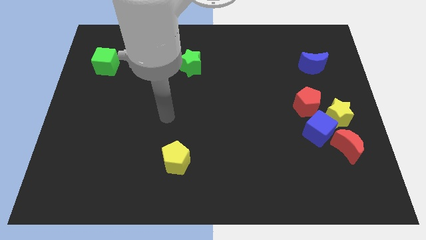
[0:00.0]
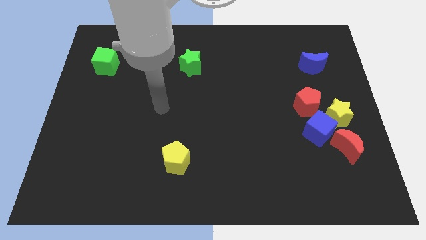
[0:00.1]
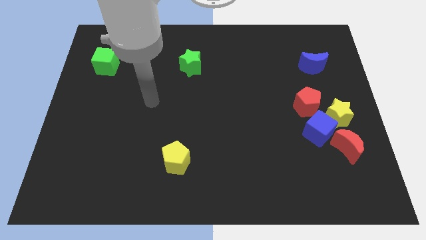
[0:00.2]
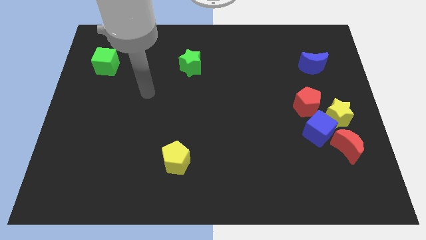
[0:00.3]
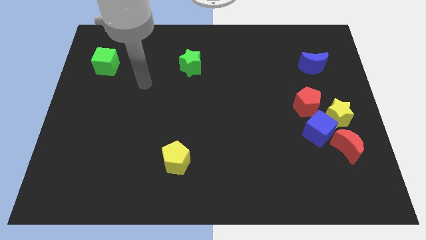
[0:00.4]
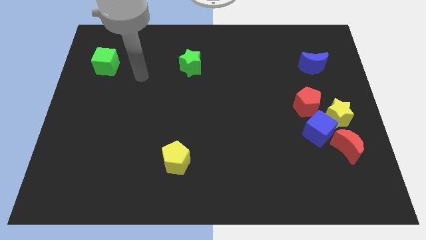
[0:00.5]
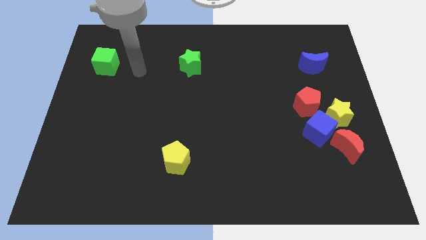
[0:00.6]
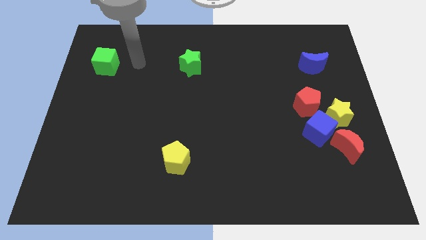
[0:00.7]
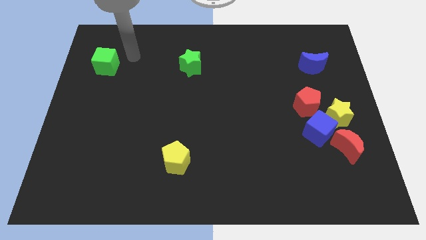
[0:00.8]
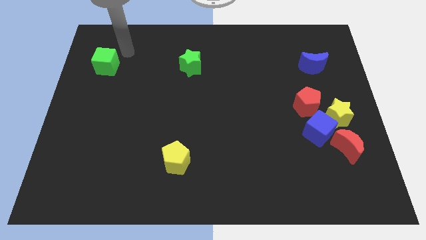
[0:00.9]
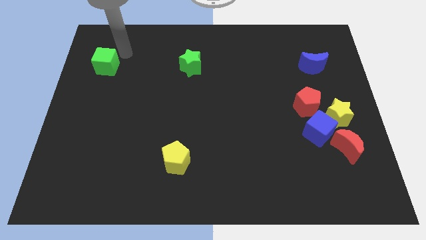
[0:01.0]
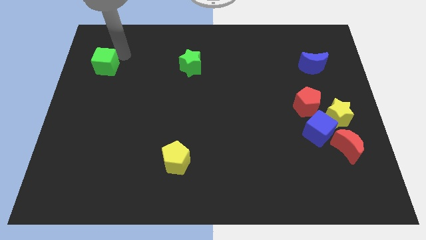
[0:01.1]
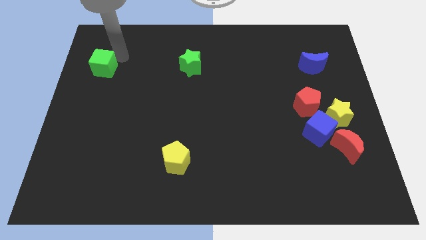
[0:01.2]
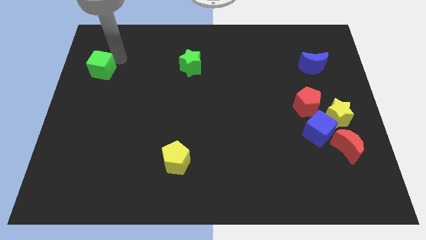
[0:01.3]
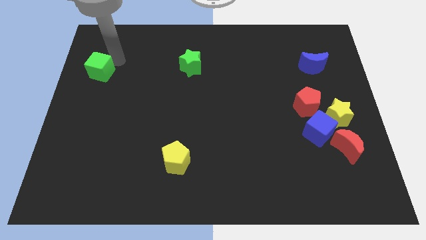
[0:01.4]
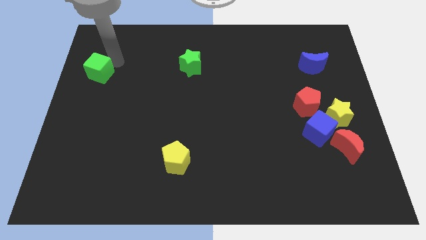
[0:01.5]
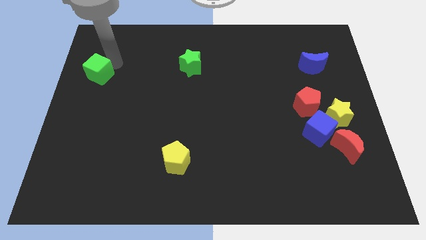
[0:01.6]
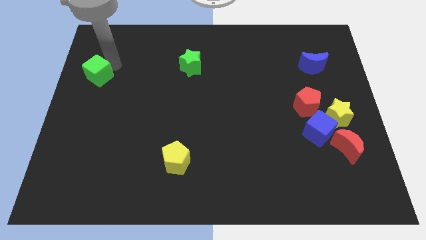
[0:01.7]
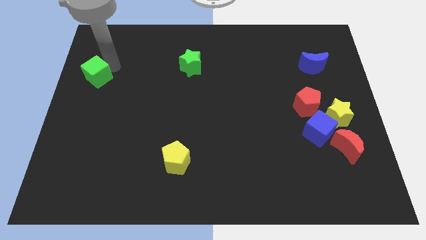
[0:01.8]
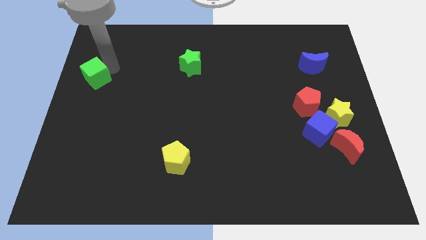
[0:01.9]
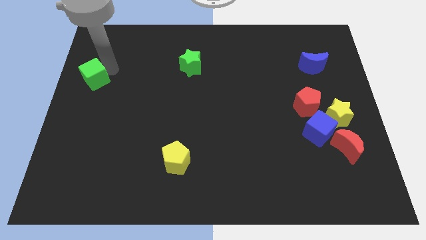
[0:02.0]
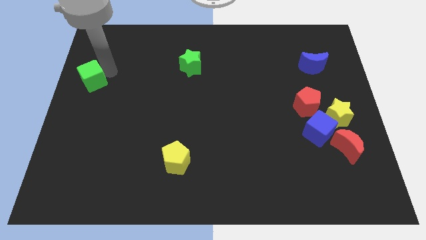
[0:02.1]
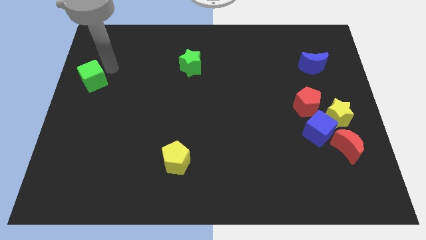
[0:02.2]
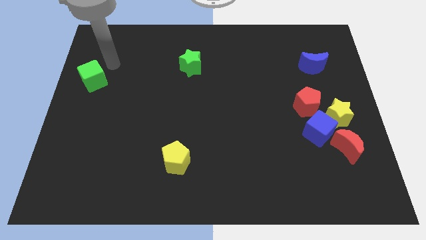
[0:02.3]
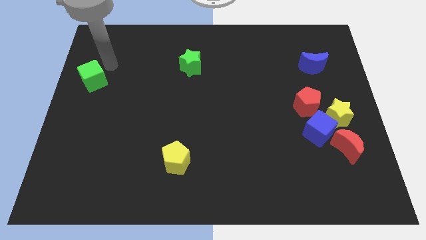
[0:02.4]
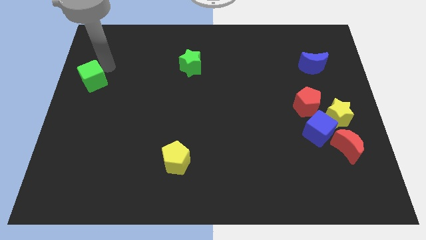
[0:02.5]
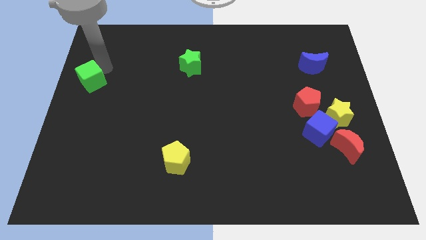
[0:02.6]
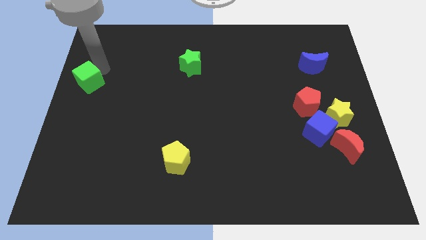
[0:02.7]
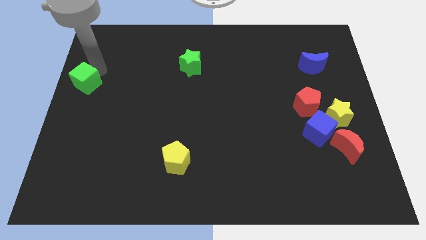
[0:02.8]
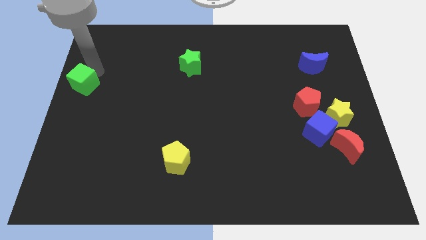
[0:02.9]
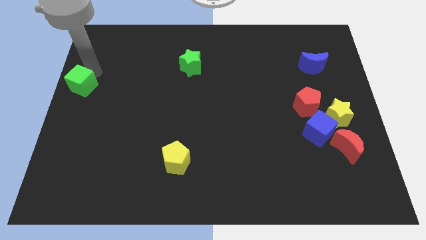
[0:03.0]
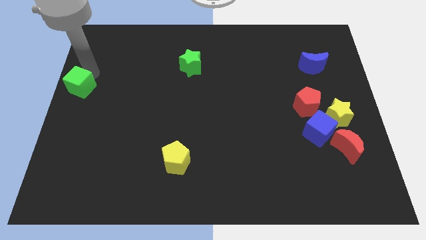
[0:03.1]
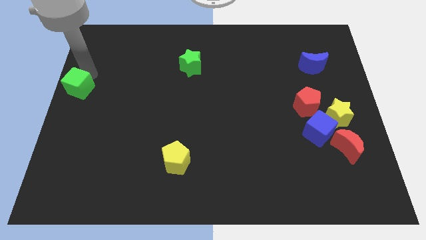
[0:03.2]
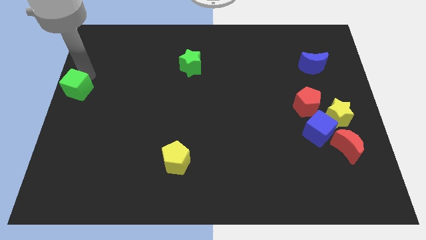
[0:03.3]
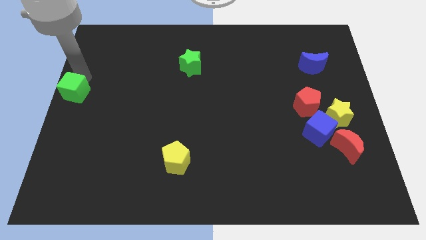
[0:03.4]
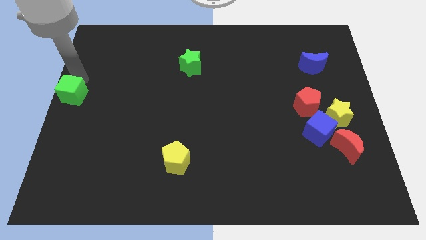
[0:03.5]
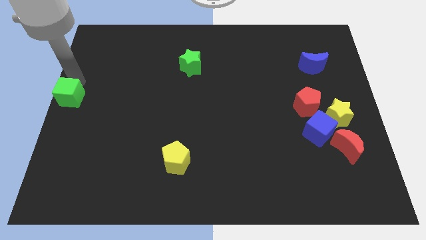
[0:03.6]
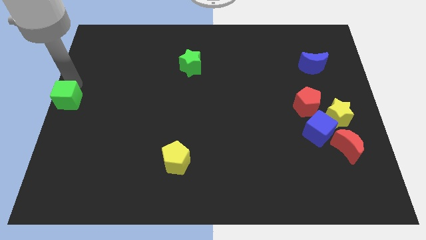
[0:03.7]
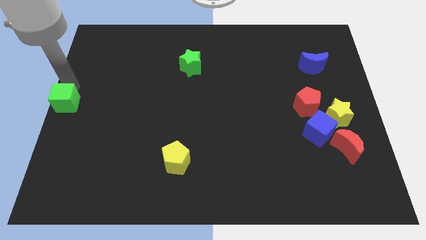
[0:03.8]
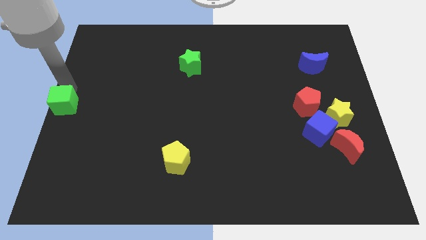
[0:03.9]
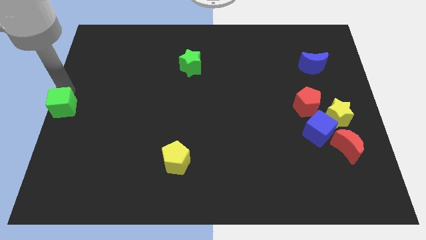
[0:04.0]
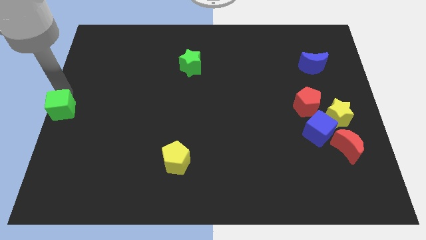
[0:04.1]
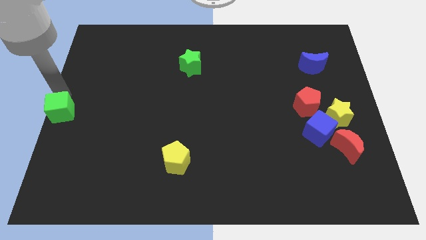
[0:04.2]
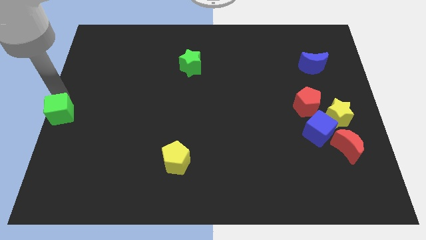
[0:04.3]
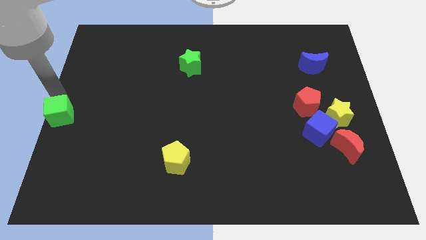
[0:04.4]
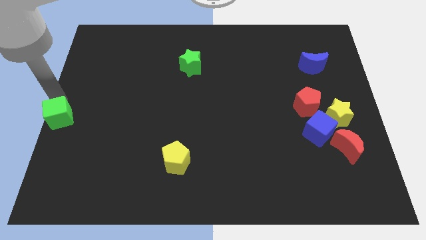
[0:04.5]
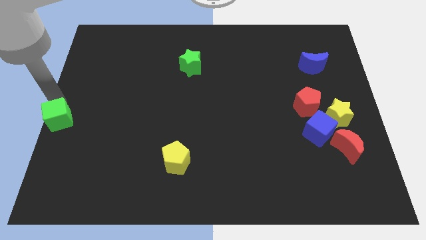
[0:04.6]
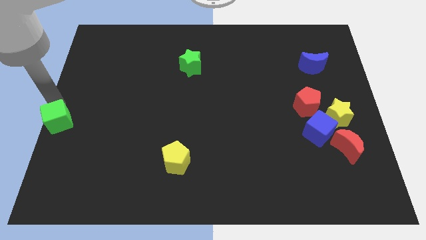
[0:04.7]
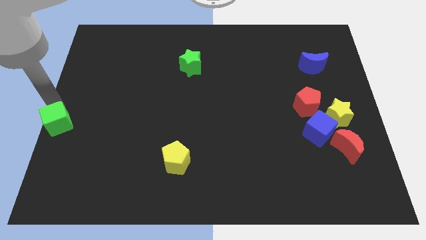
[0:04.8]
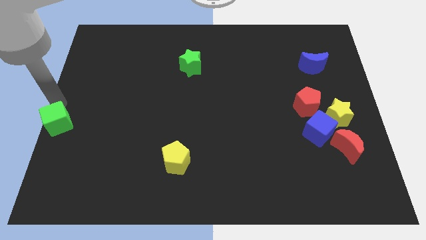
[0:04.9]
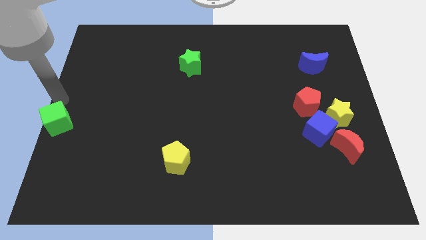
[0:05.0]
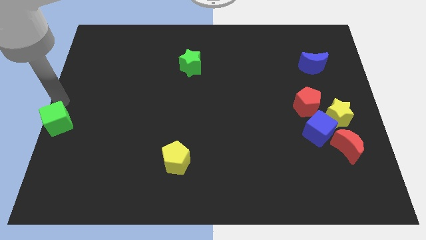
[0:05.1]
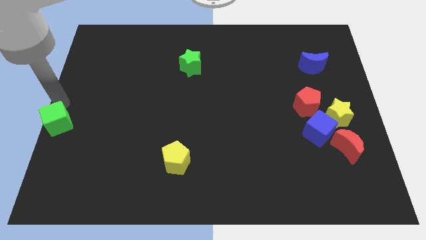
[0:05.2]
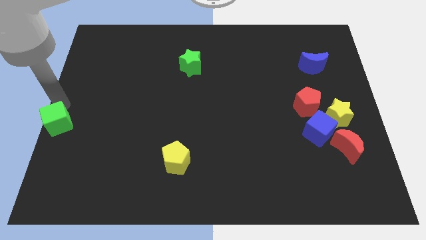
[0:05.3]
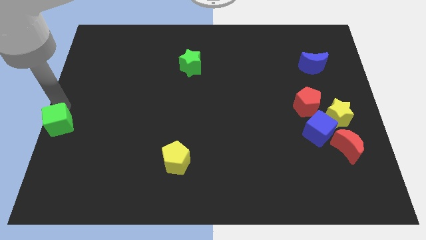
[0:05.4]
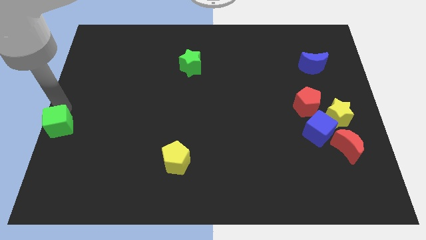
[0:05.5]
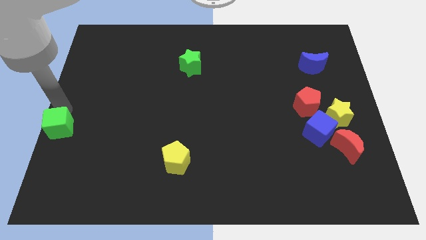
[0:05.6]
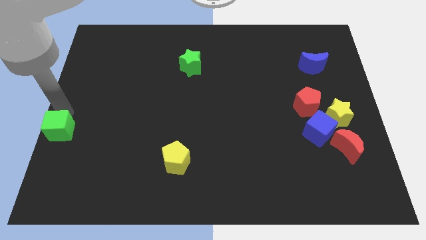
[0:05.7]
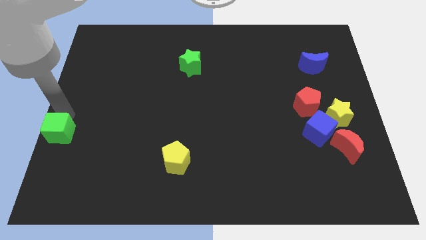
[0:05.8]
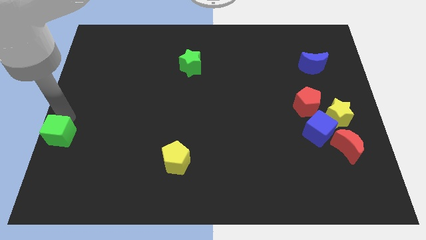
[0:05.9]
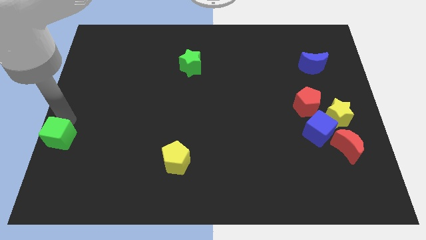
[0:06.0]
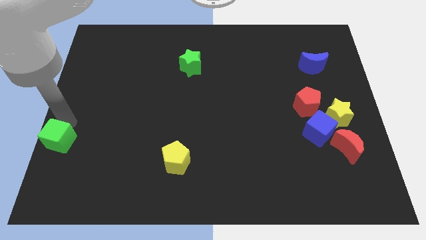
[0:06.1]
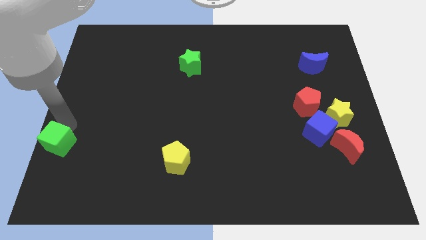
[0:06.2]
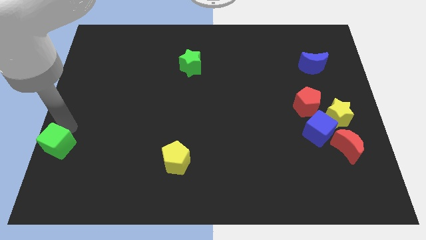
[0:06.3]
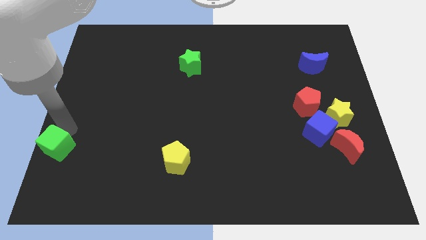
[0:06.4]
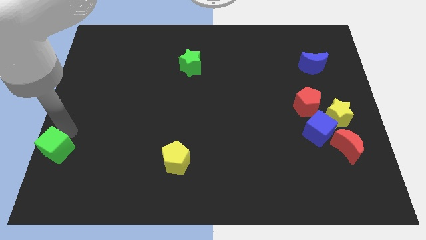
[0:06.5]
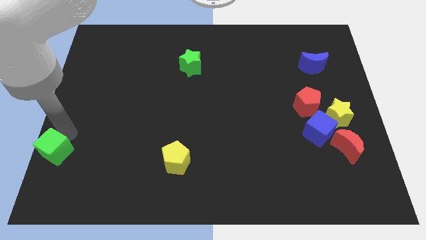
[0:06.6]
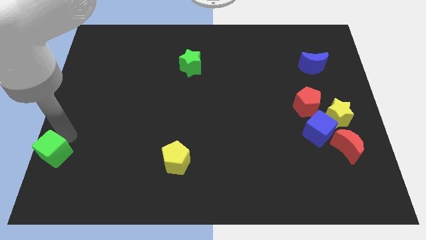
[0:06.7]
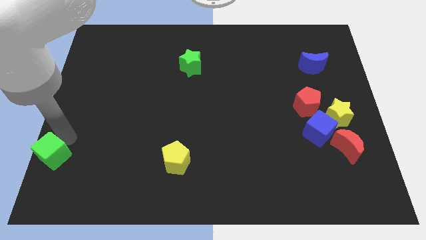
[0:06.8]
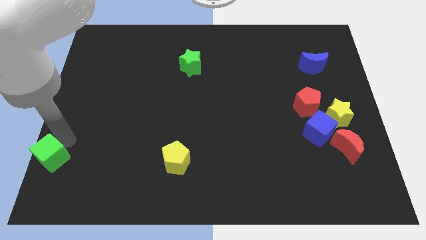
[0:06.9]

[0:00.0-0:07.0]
push the green cube to the bottom left
